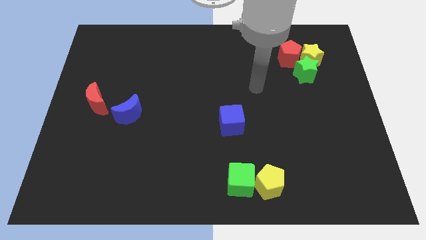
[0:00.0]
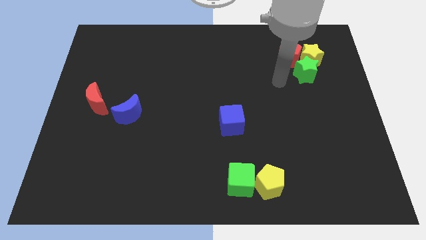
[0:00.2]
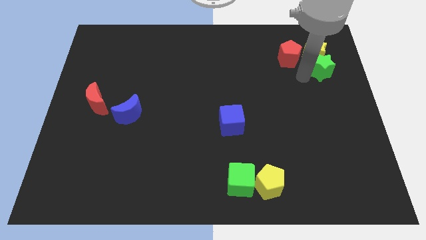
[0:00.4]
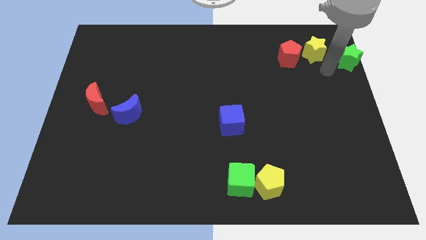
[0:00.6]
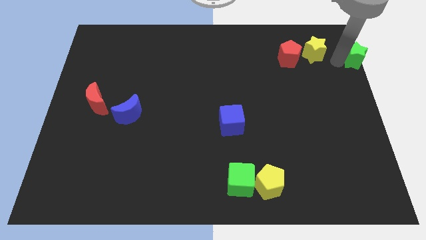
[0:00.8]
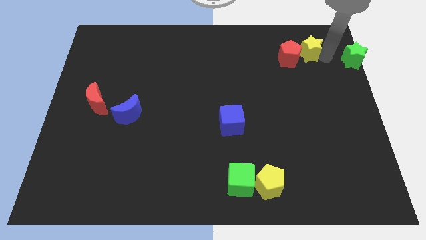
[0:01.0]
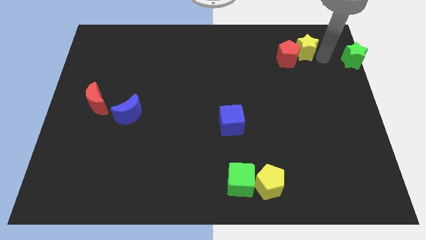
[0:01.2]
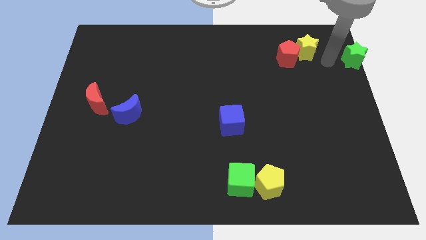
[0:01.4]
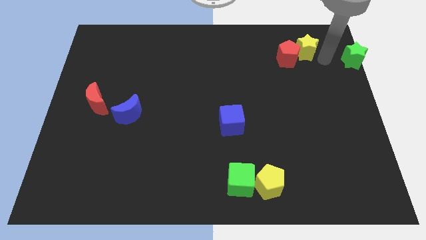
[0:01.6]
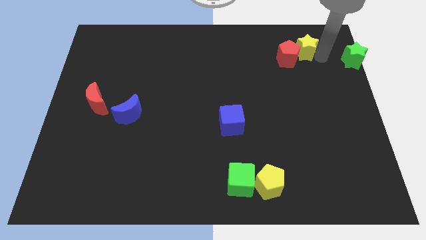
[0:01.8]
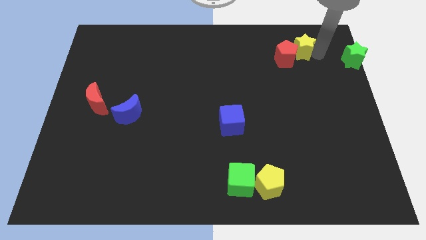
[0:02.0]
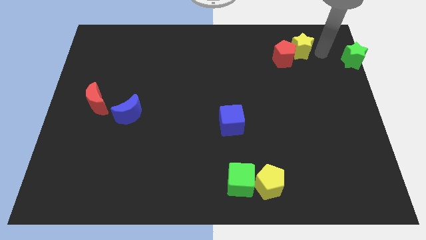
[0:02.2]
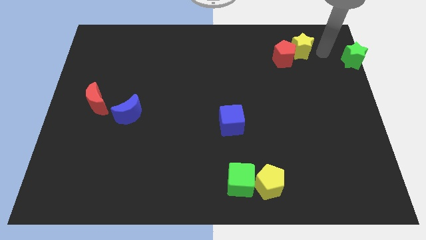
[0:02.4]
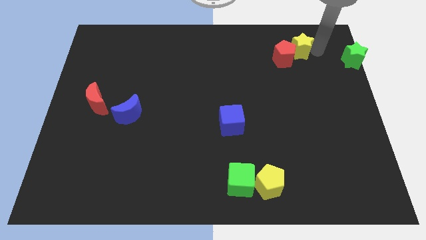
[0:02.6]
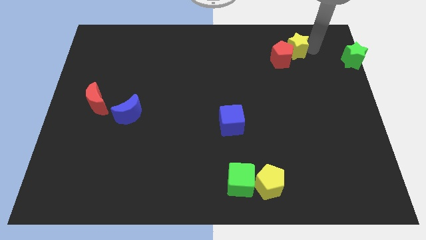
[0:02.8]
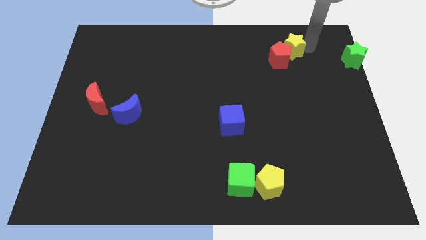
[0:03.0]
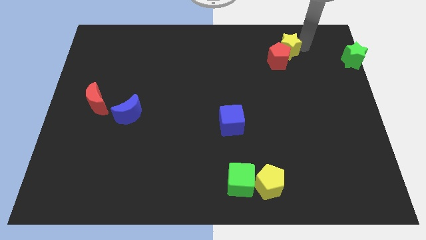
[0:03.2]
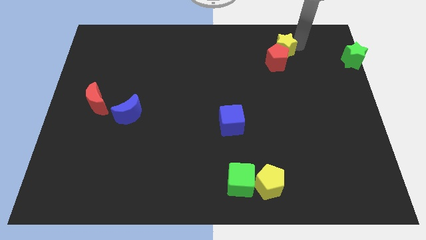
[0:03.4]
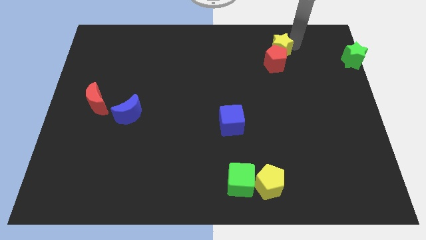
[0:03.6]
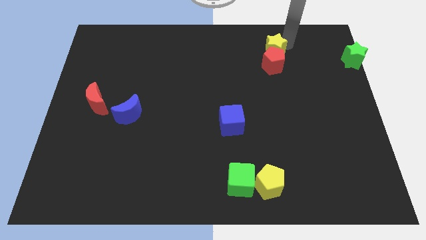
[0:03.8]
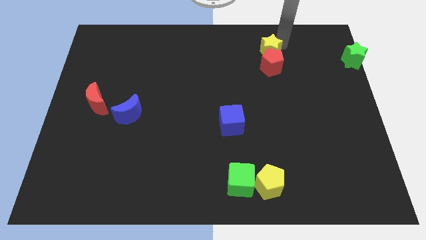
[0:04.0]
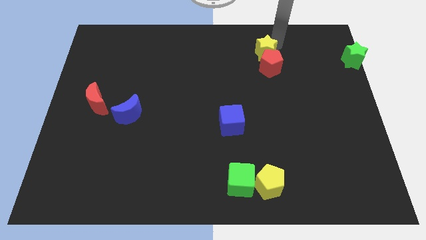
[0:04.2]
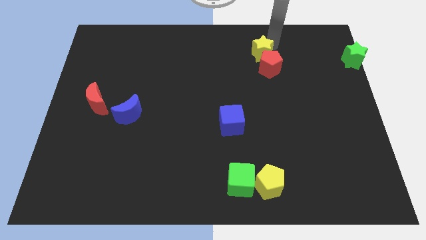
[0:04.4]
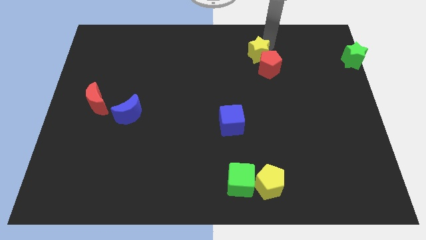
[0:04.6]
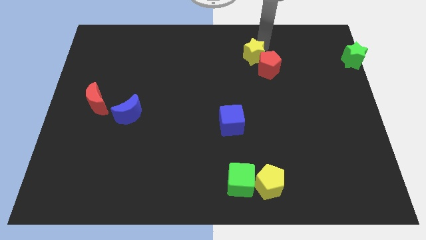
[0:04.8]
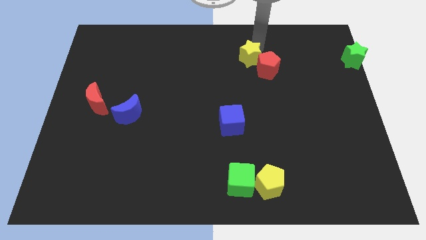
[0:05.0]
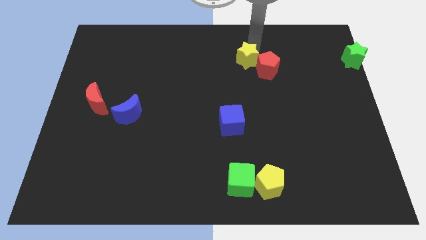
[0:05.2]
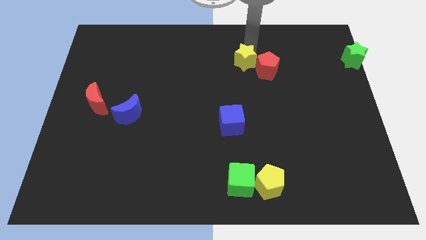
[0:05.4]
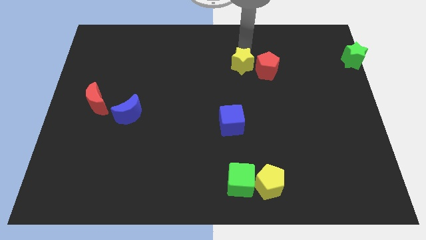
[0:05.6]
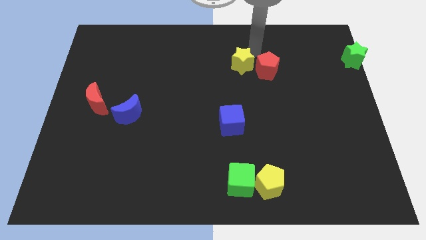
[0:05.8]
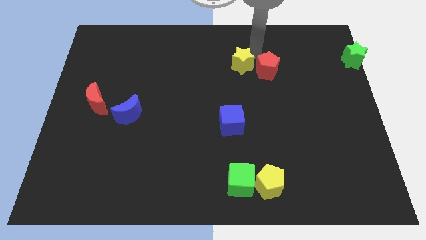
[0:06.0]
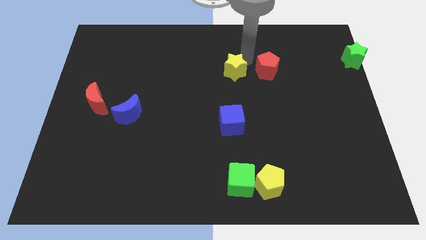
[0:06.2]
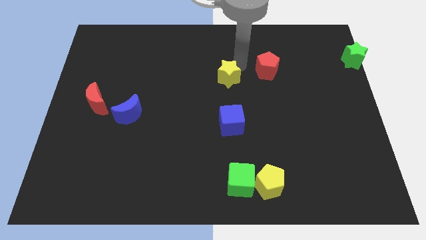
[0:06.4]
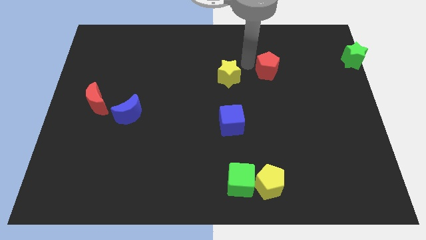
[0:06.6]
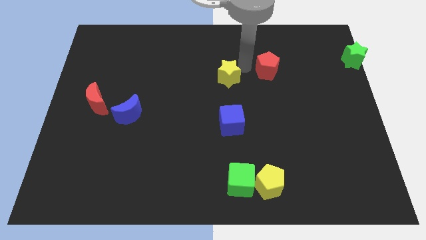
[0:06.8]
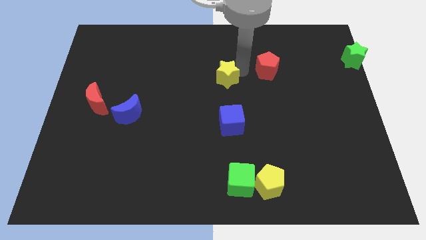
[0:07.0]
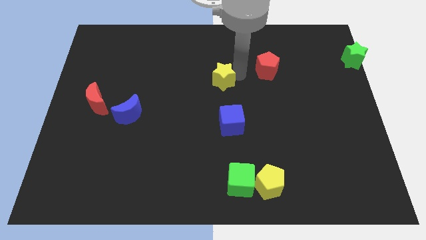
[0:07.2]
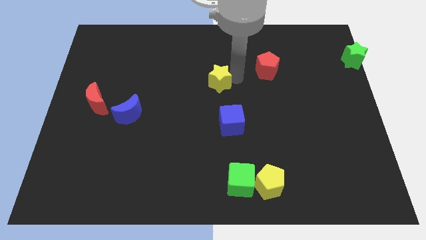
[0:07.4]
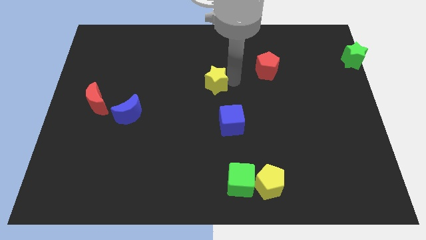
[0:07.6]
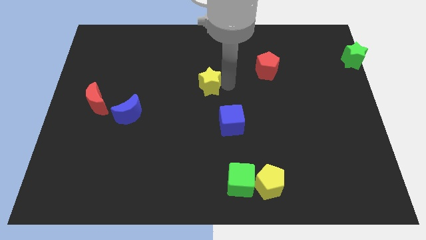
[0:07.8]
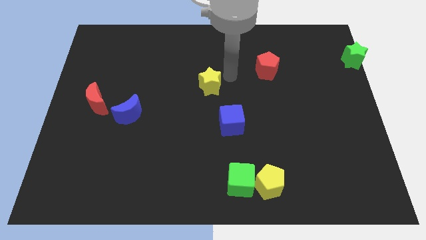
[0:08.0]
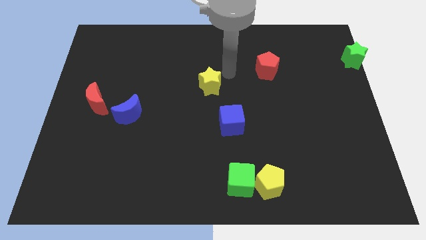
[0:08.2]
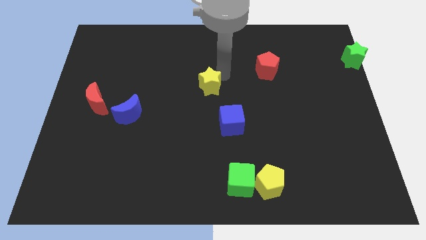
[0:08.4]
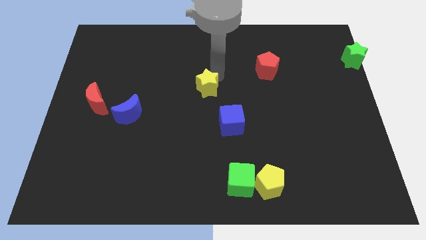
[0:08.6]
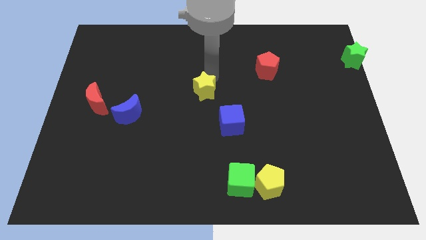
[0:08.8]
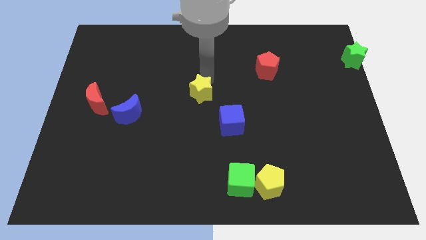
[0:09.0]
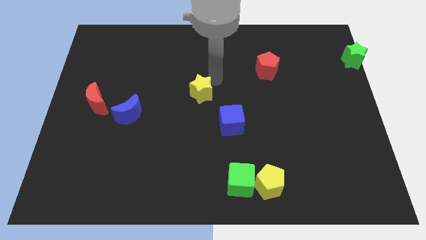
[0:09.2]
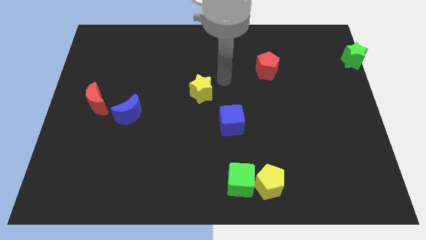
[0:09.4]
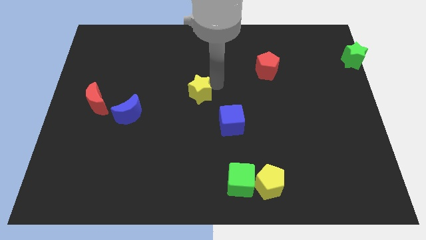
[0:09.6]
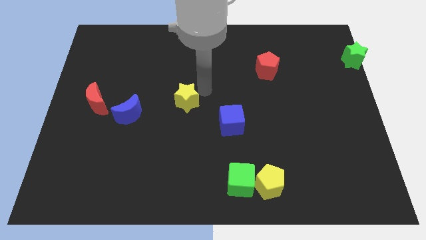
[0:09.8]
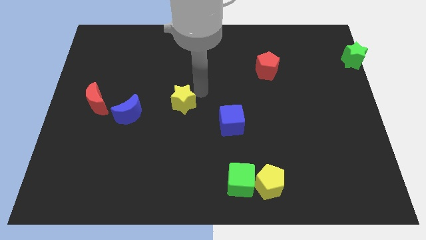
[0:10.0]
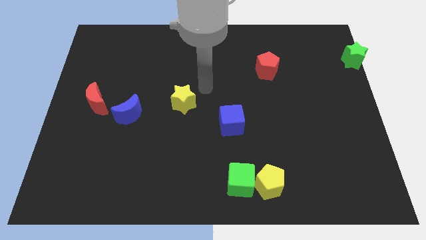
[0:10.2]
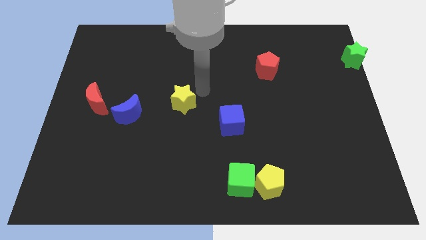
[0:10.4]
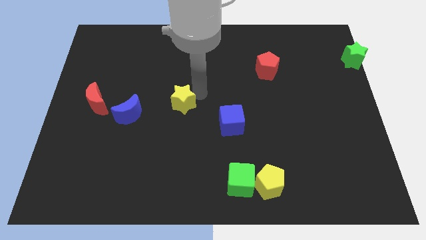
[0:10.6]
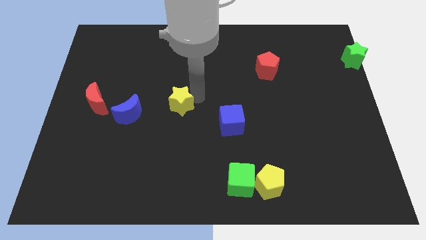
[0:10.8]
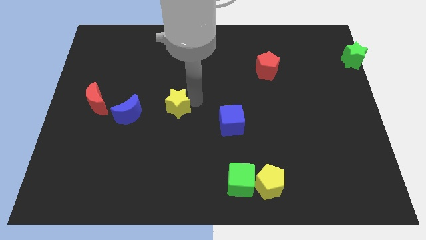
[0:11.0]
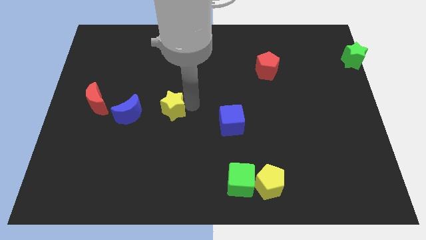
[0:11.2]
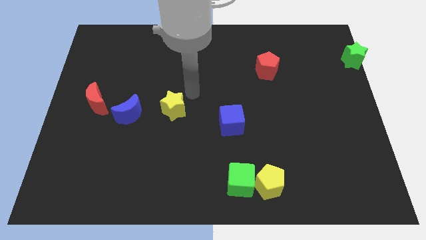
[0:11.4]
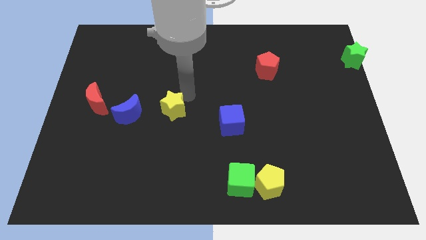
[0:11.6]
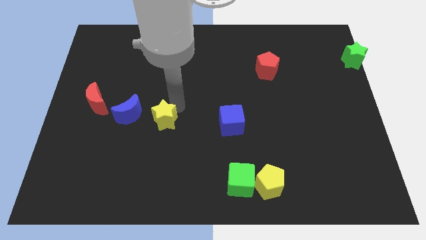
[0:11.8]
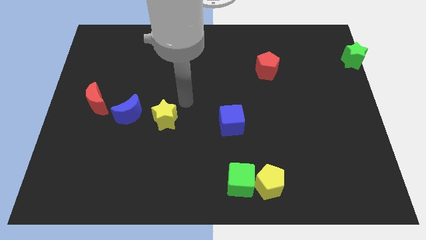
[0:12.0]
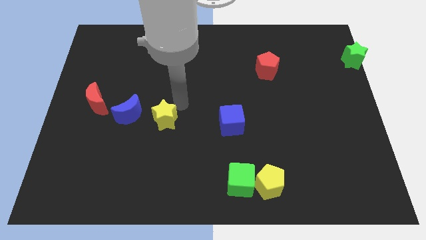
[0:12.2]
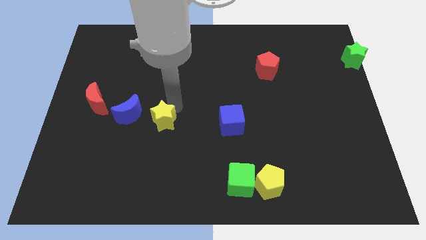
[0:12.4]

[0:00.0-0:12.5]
move the yellow star to the bottom right of the blue moon

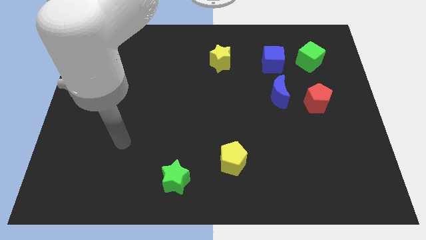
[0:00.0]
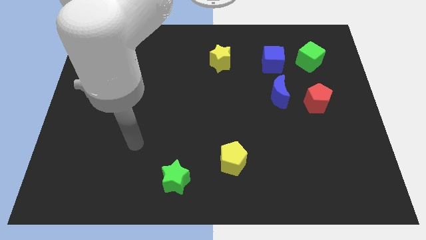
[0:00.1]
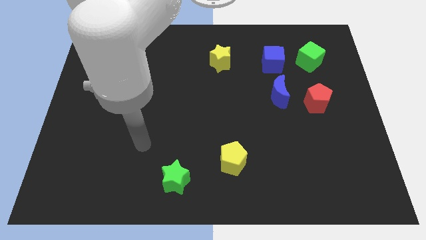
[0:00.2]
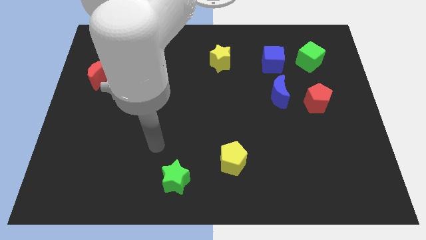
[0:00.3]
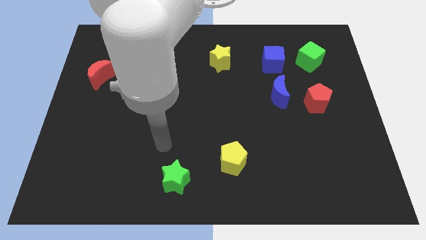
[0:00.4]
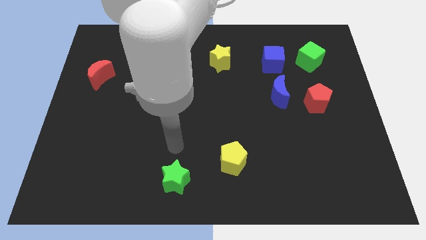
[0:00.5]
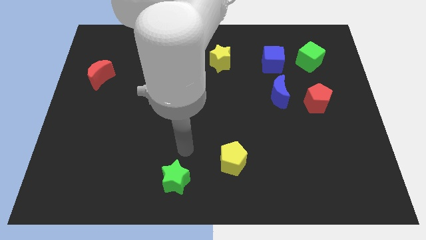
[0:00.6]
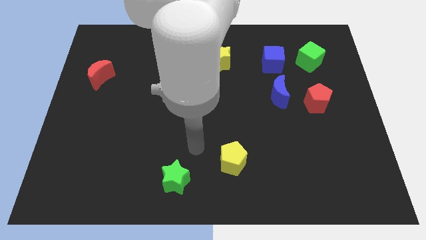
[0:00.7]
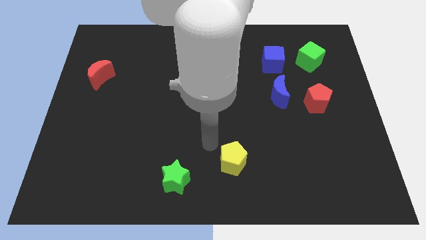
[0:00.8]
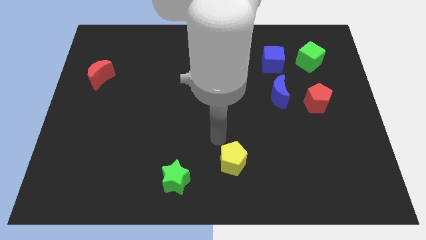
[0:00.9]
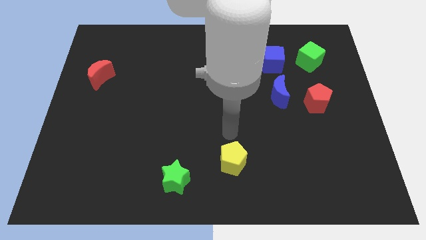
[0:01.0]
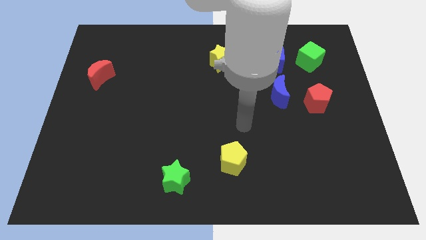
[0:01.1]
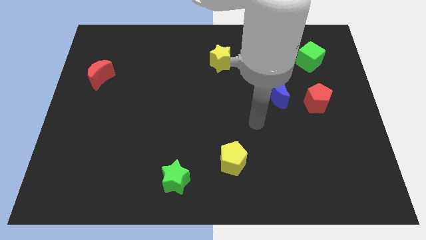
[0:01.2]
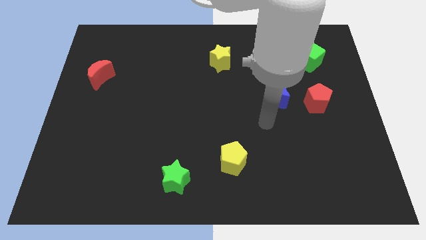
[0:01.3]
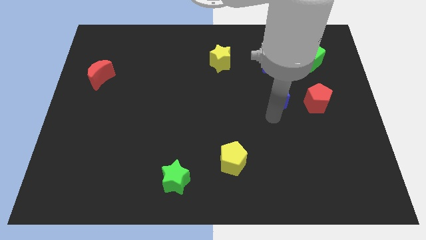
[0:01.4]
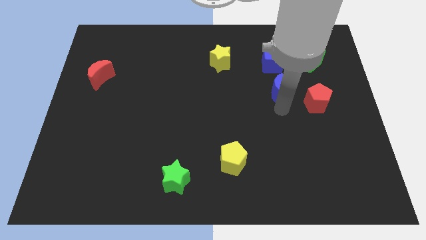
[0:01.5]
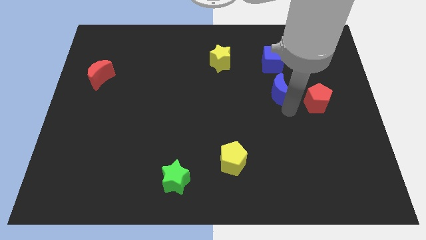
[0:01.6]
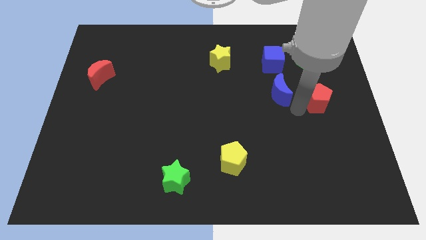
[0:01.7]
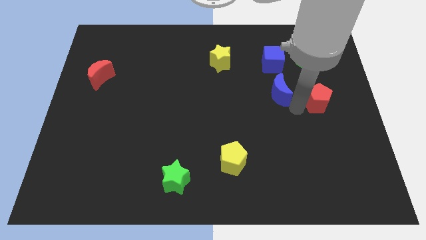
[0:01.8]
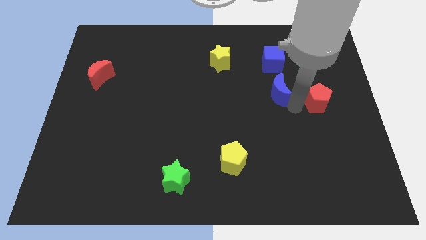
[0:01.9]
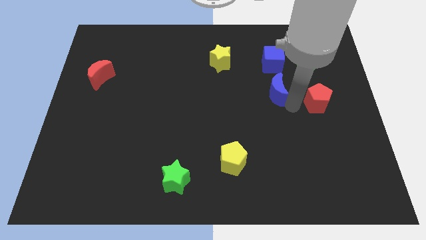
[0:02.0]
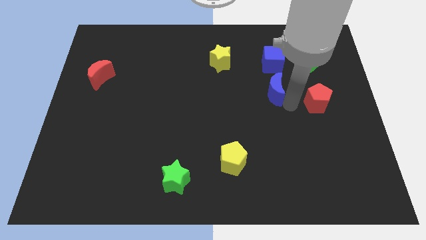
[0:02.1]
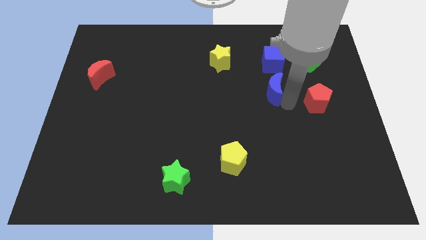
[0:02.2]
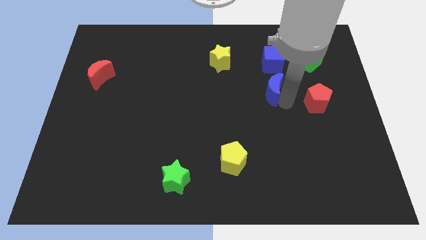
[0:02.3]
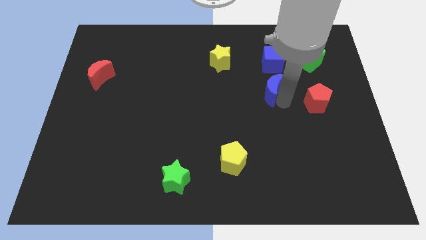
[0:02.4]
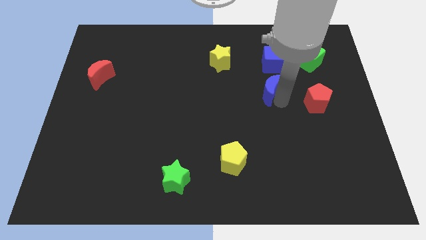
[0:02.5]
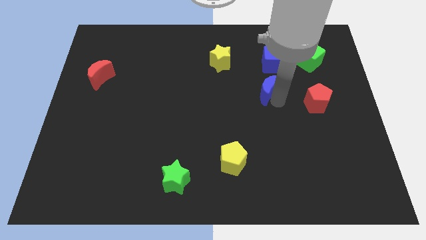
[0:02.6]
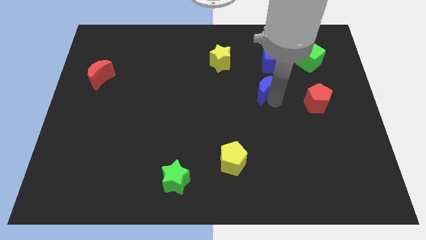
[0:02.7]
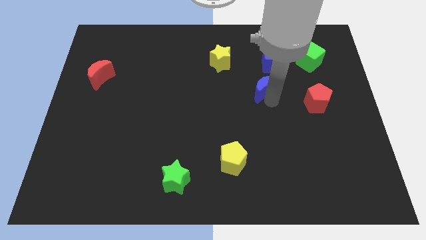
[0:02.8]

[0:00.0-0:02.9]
move the blue moon diagonally down and to the left of the blue cube
